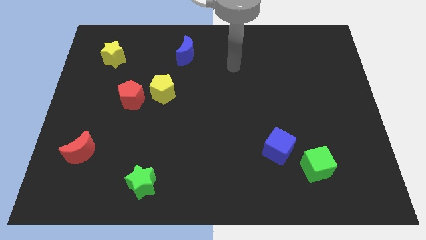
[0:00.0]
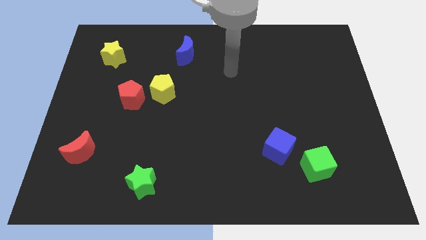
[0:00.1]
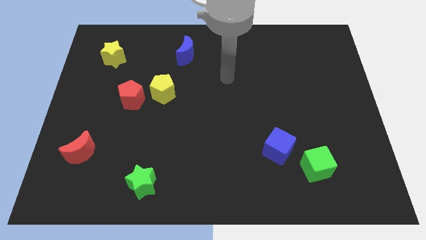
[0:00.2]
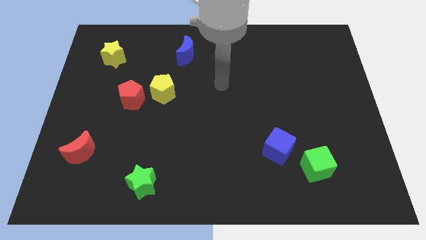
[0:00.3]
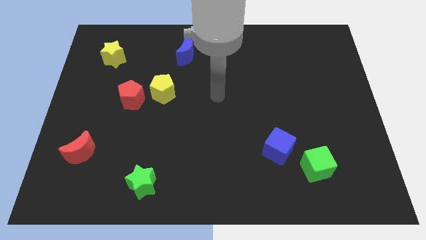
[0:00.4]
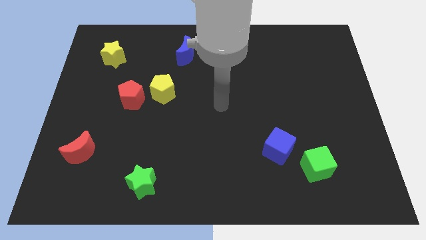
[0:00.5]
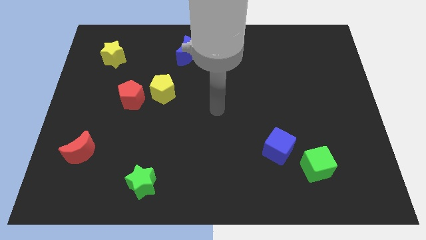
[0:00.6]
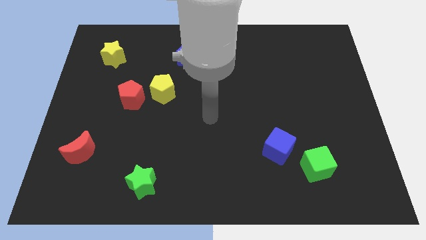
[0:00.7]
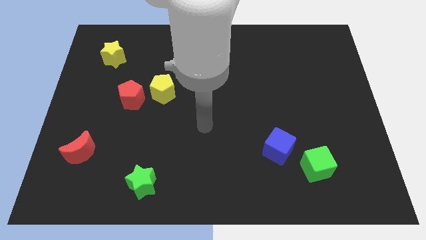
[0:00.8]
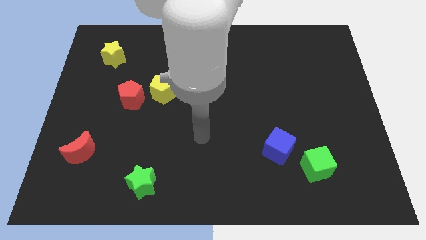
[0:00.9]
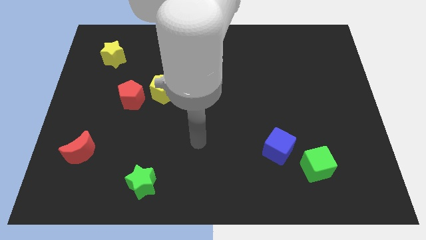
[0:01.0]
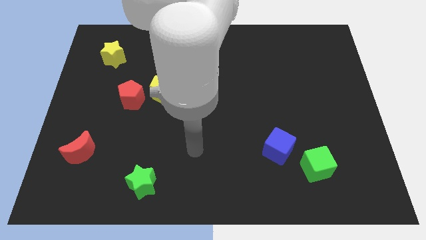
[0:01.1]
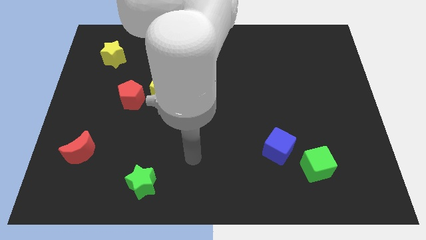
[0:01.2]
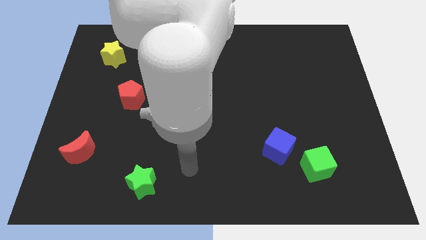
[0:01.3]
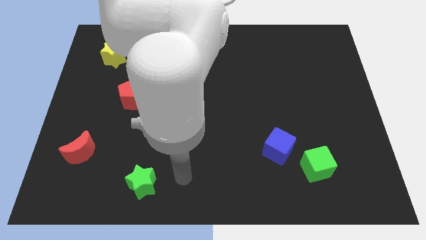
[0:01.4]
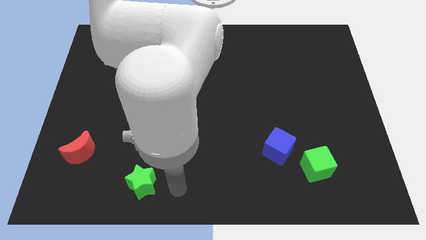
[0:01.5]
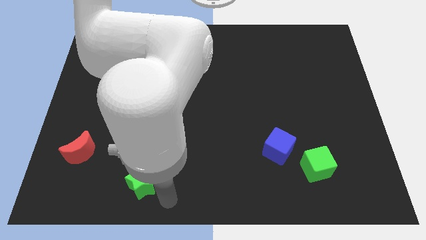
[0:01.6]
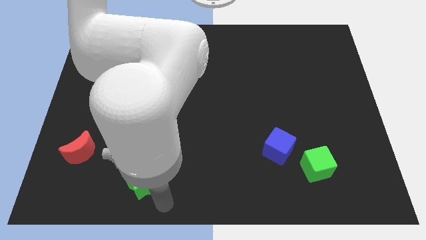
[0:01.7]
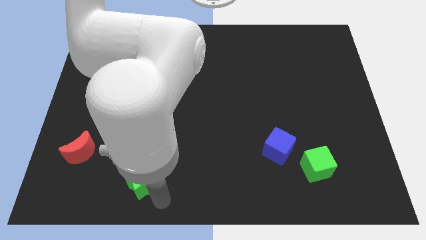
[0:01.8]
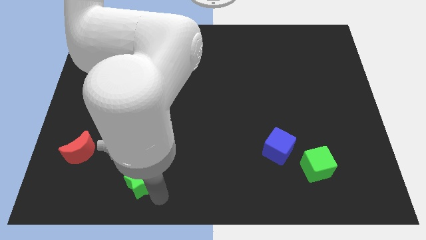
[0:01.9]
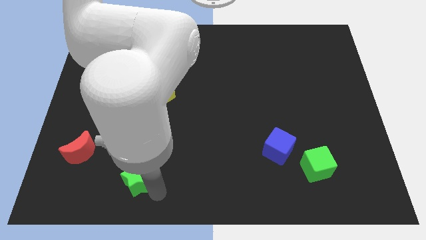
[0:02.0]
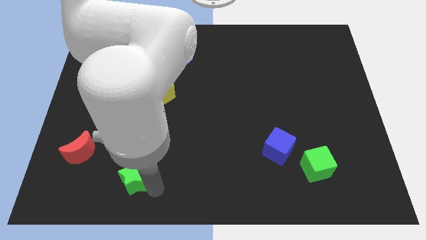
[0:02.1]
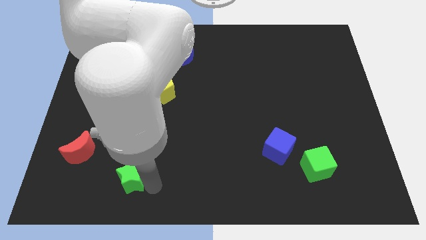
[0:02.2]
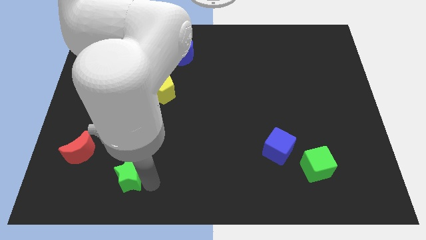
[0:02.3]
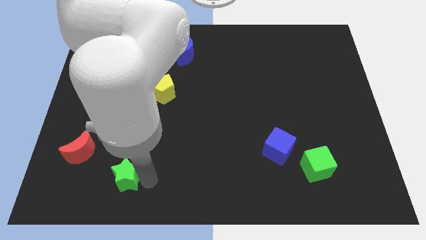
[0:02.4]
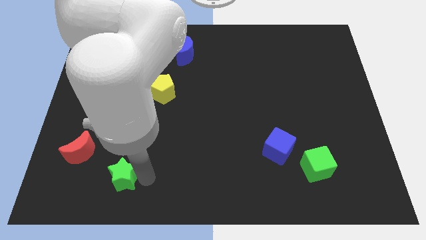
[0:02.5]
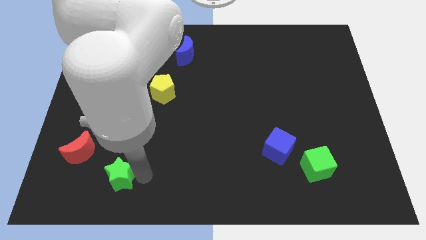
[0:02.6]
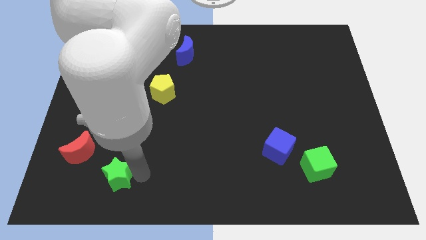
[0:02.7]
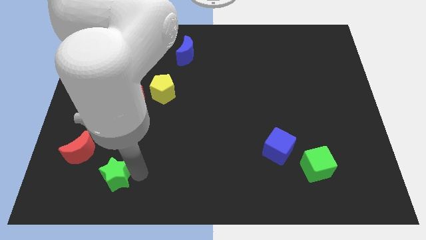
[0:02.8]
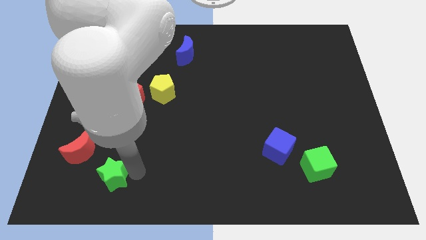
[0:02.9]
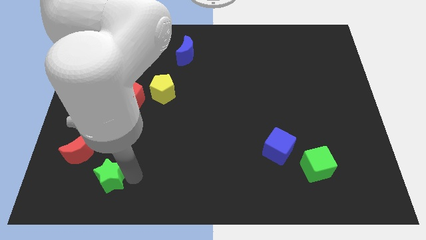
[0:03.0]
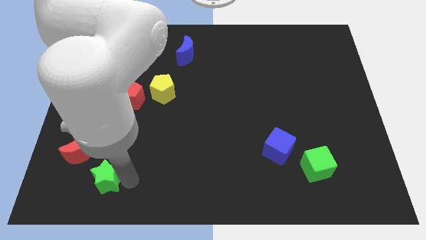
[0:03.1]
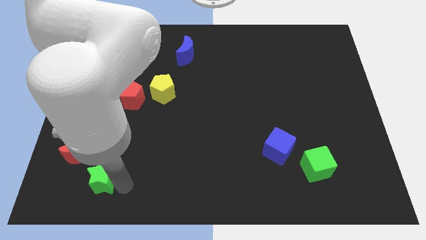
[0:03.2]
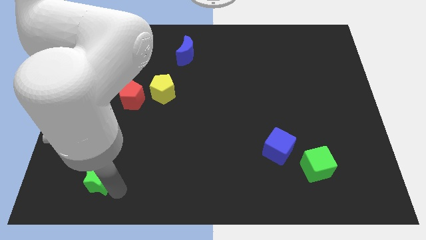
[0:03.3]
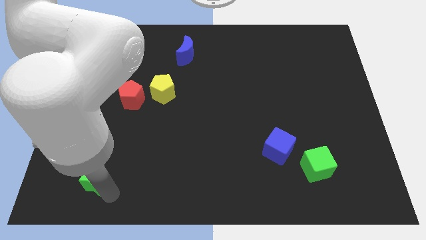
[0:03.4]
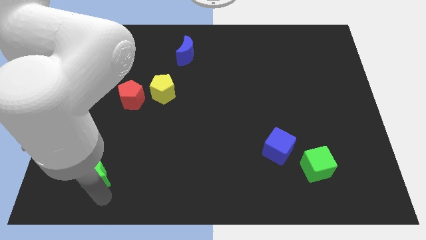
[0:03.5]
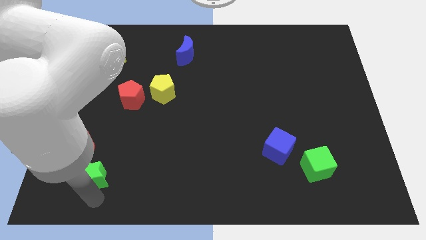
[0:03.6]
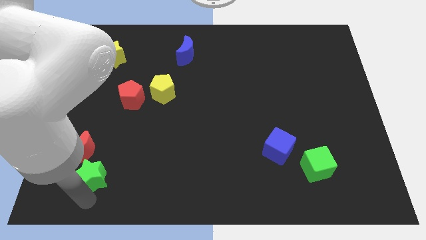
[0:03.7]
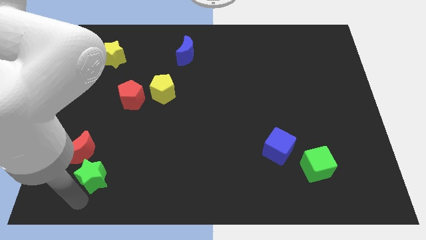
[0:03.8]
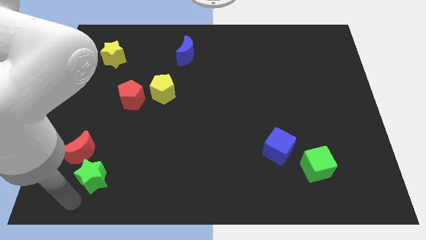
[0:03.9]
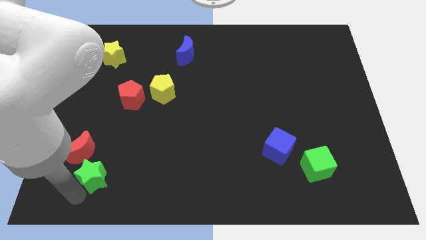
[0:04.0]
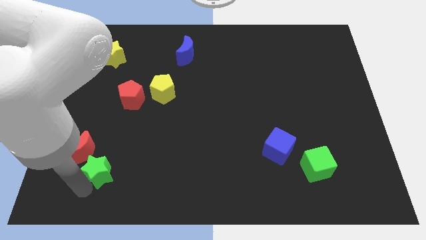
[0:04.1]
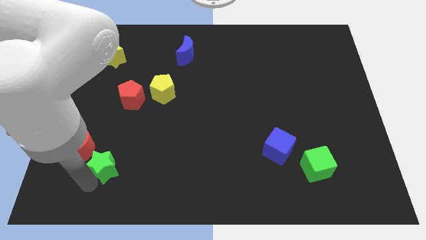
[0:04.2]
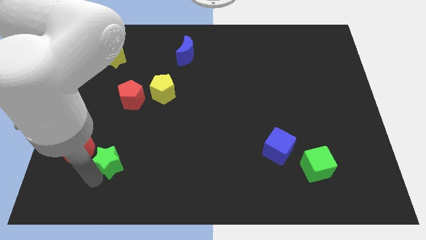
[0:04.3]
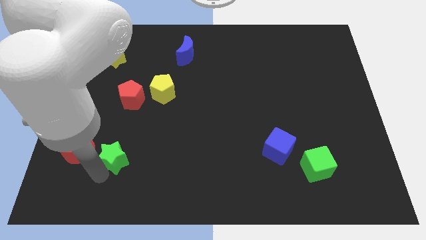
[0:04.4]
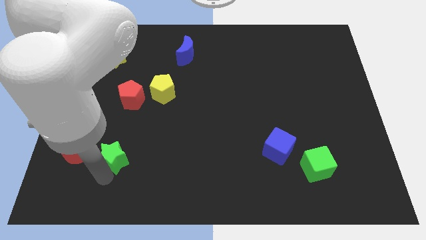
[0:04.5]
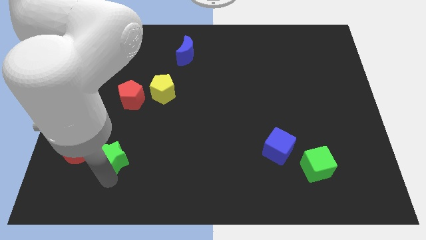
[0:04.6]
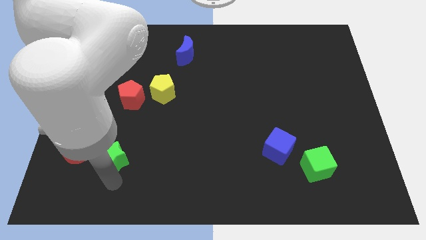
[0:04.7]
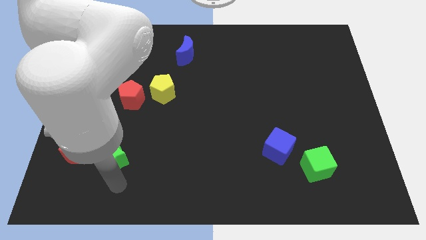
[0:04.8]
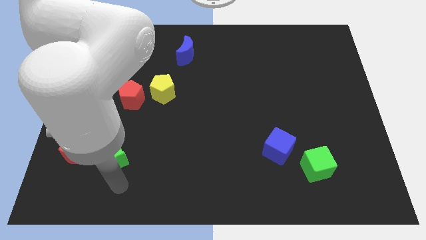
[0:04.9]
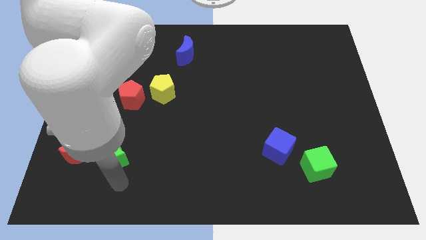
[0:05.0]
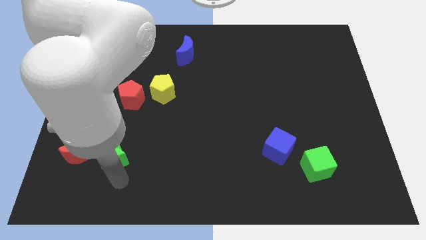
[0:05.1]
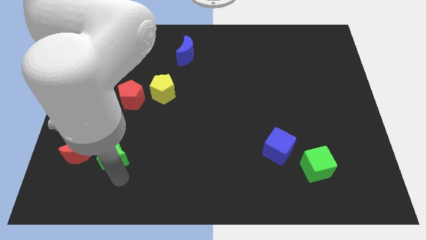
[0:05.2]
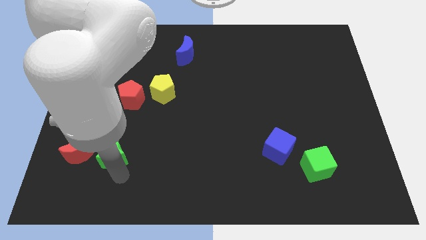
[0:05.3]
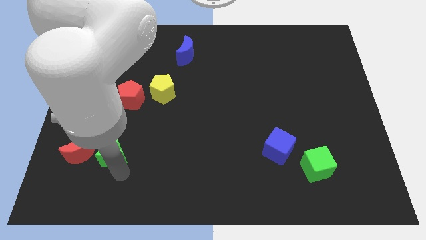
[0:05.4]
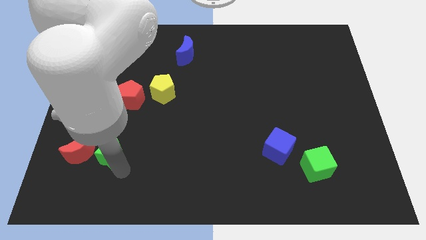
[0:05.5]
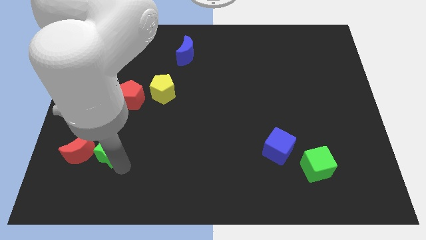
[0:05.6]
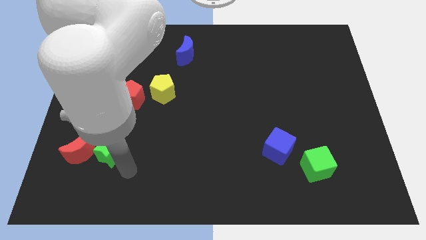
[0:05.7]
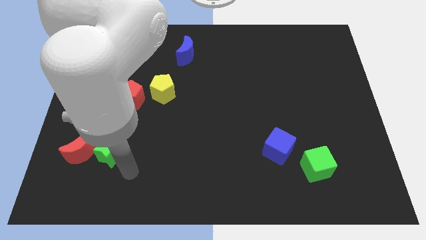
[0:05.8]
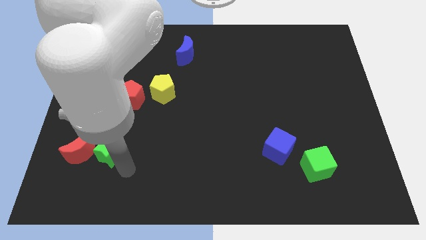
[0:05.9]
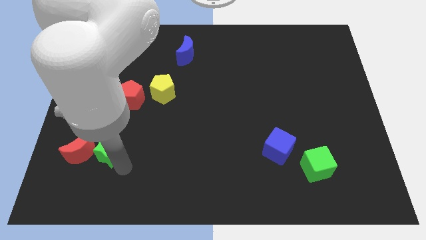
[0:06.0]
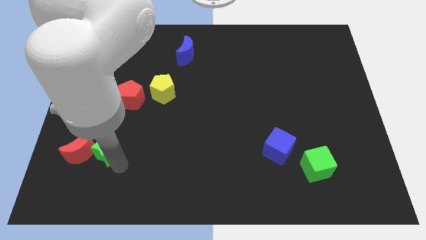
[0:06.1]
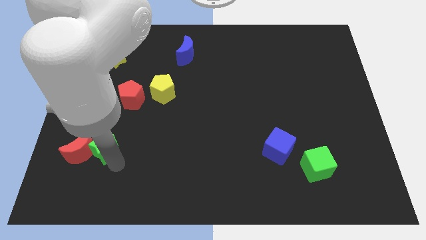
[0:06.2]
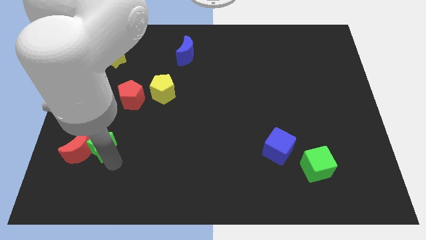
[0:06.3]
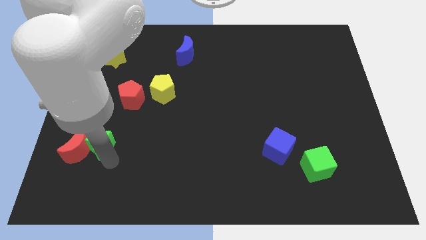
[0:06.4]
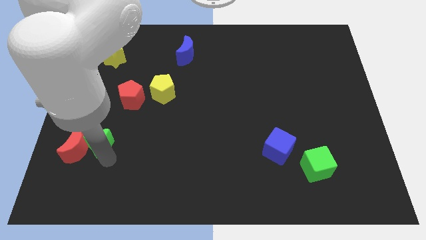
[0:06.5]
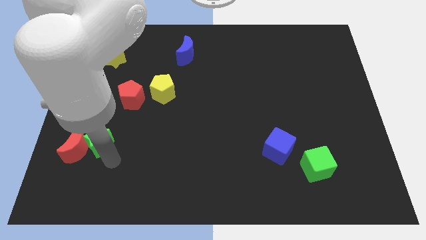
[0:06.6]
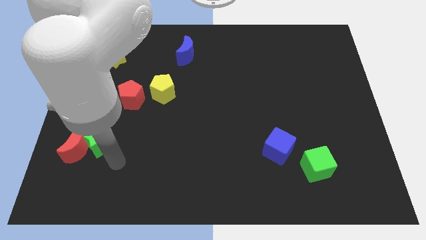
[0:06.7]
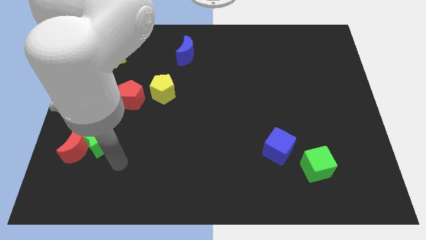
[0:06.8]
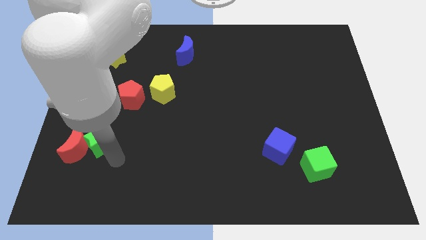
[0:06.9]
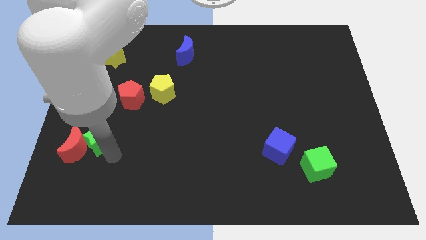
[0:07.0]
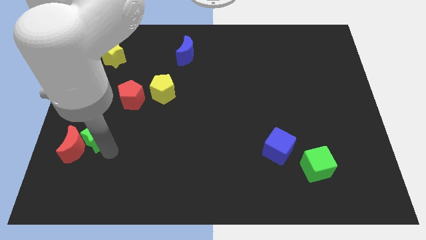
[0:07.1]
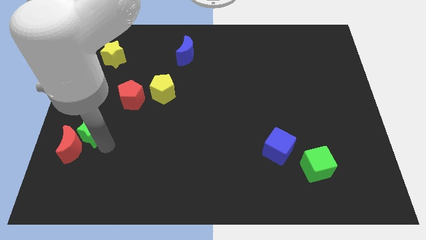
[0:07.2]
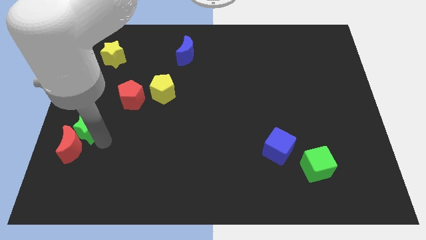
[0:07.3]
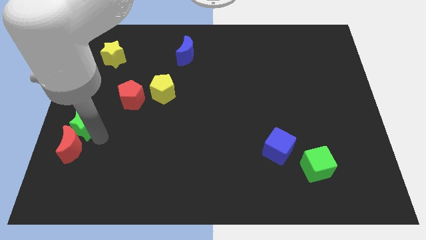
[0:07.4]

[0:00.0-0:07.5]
slide the green star to the left side
